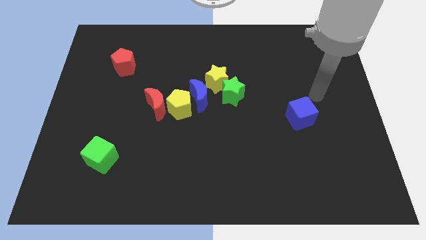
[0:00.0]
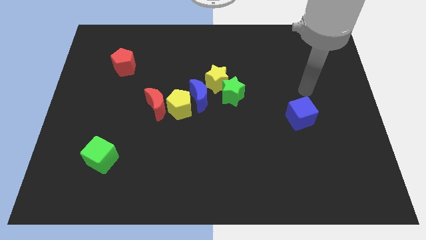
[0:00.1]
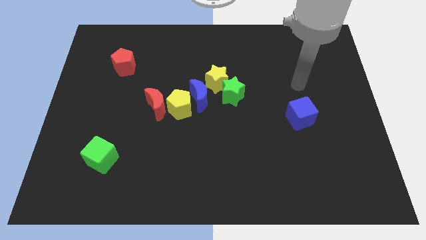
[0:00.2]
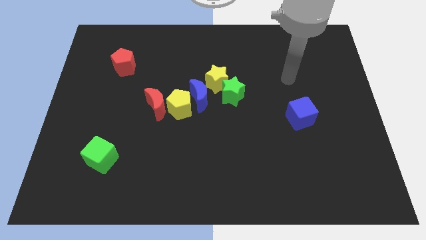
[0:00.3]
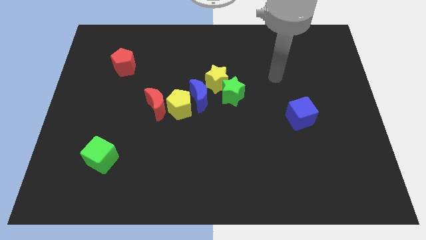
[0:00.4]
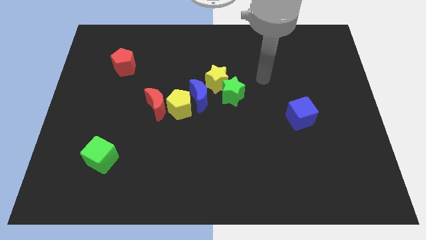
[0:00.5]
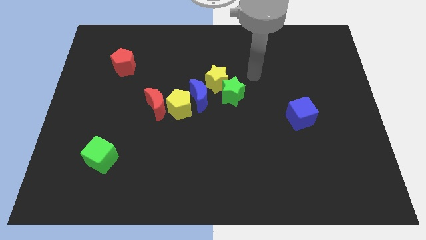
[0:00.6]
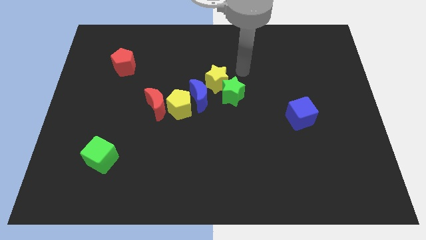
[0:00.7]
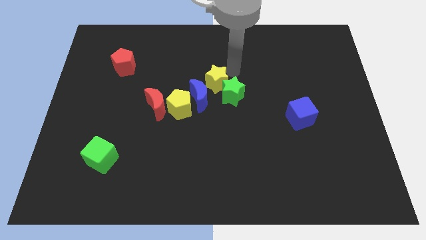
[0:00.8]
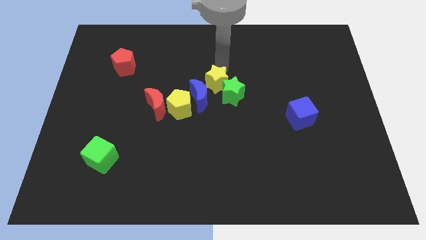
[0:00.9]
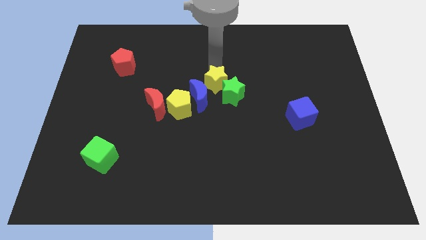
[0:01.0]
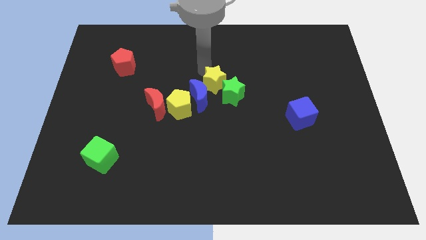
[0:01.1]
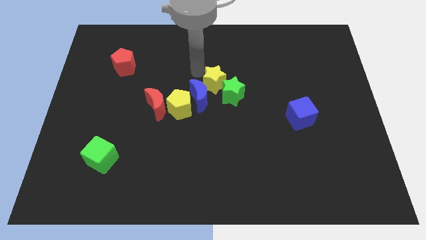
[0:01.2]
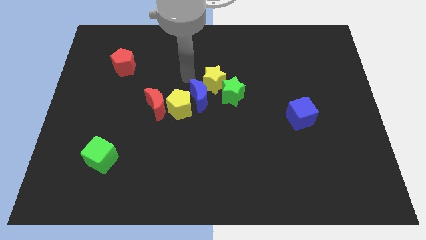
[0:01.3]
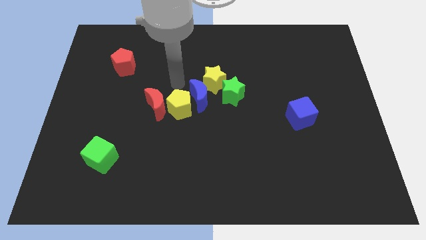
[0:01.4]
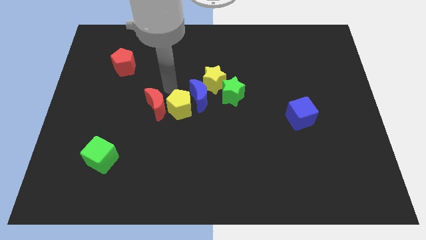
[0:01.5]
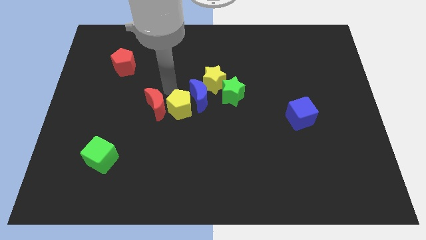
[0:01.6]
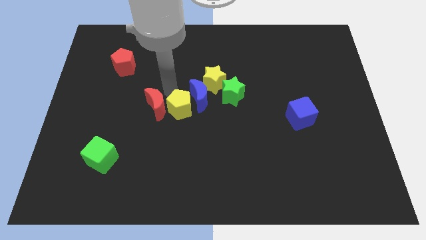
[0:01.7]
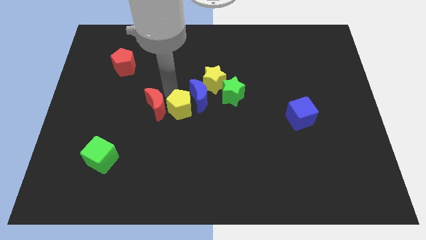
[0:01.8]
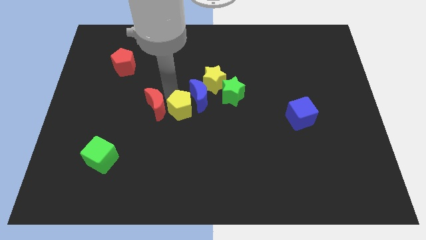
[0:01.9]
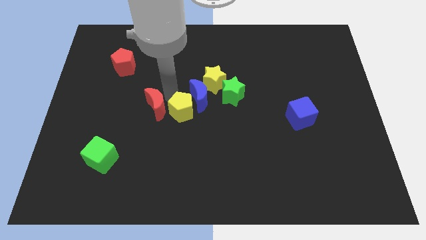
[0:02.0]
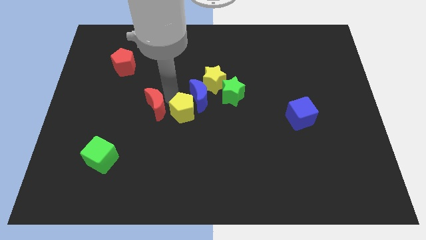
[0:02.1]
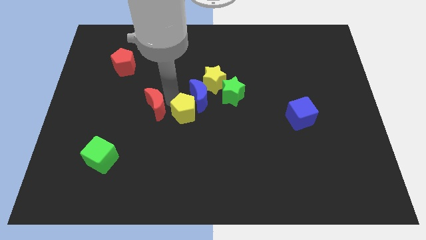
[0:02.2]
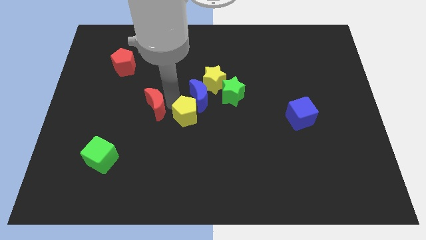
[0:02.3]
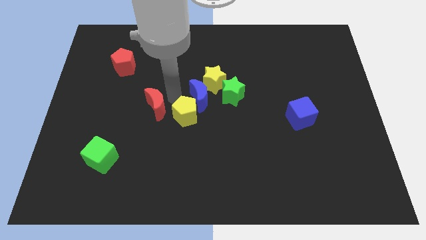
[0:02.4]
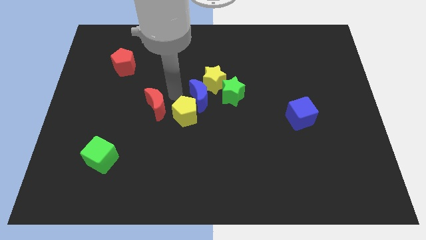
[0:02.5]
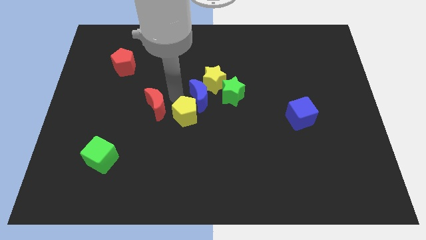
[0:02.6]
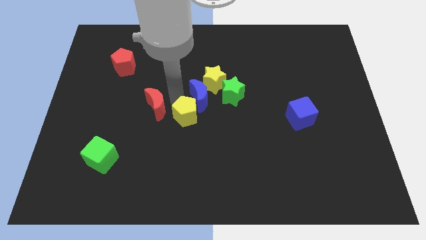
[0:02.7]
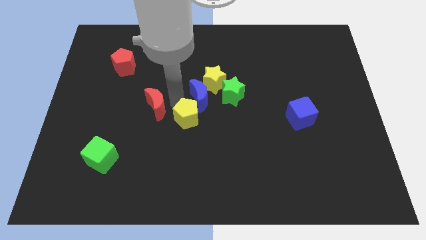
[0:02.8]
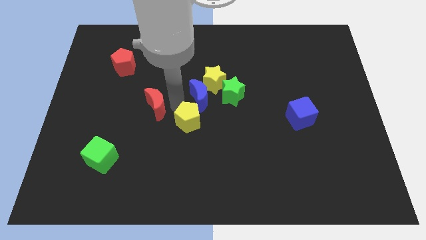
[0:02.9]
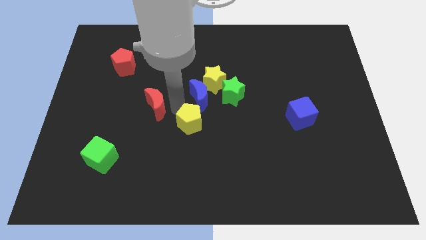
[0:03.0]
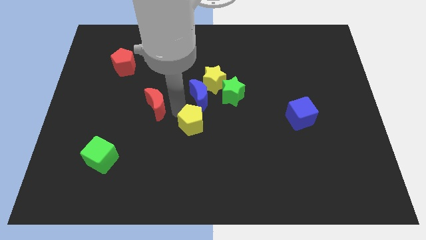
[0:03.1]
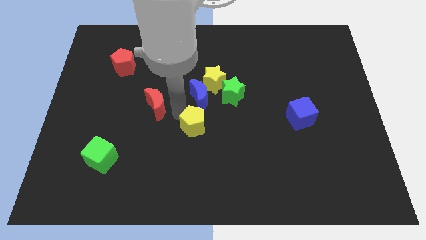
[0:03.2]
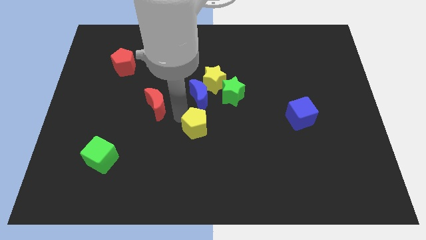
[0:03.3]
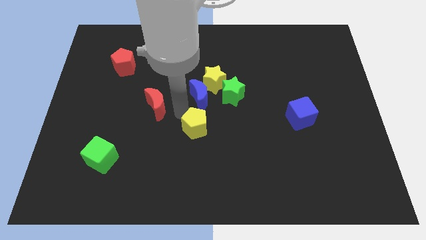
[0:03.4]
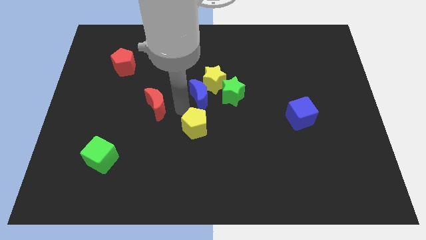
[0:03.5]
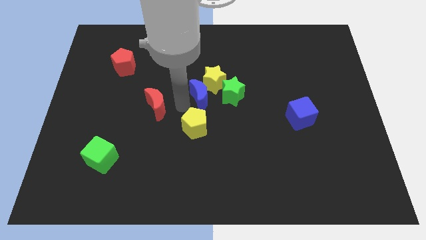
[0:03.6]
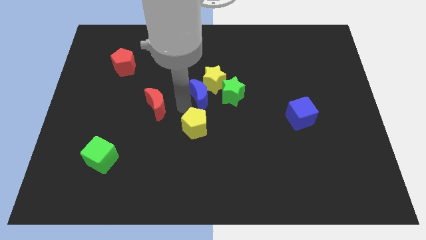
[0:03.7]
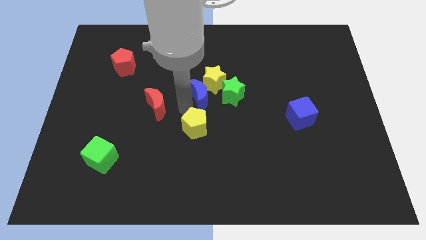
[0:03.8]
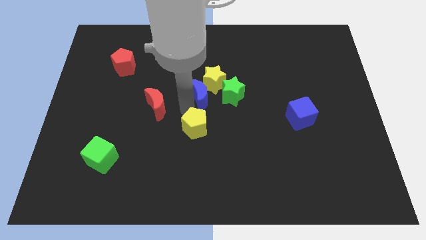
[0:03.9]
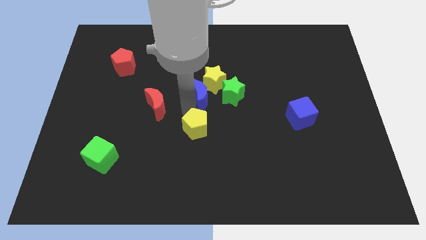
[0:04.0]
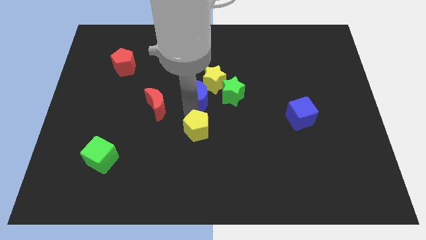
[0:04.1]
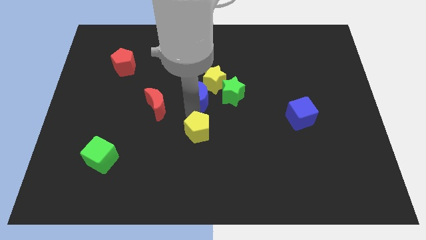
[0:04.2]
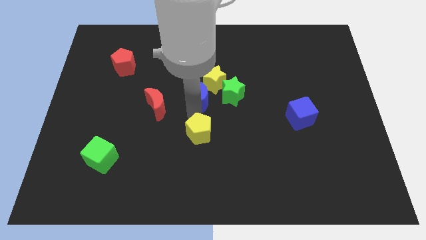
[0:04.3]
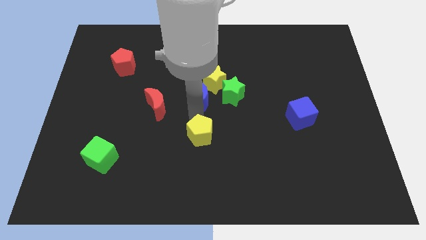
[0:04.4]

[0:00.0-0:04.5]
separate the yellow pentagon from the blue moon and red moon

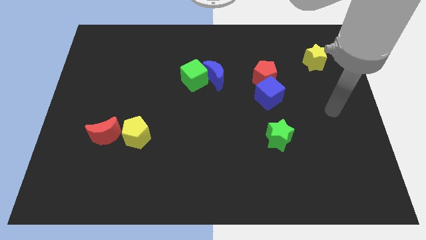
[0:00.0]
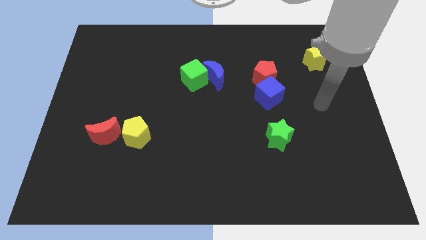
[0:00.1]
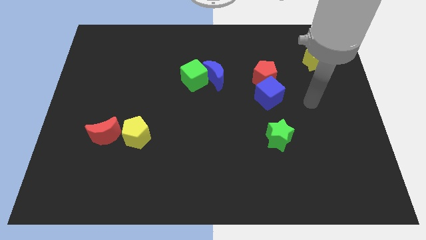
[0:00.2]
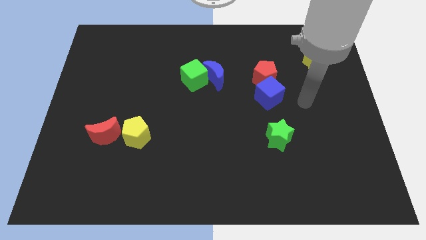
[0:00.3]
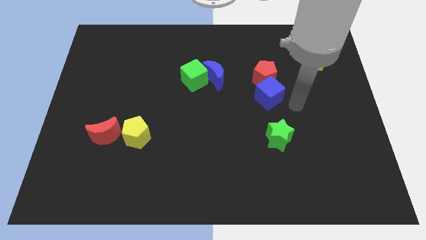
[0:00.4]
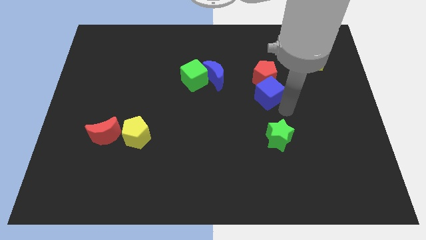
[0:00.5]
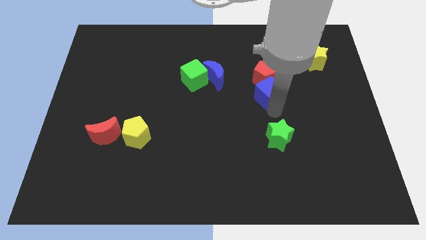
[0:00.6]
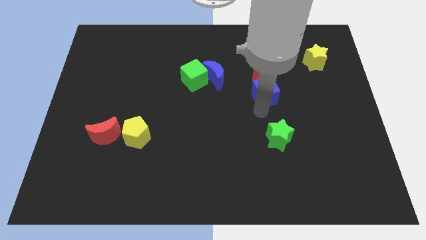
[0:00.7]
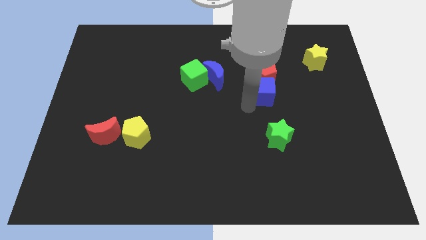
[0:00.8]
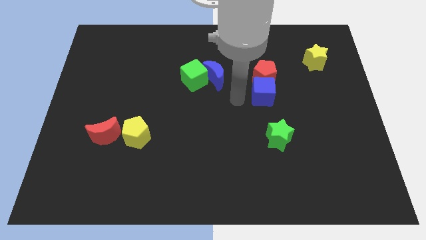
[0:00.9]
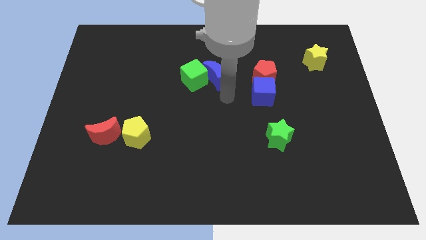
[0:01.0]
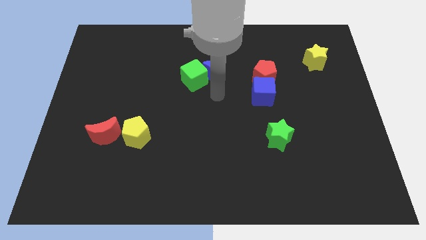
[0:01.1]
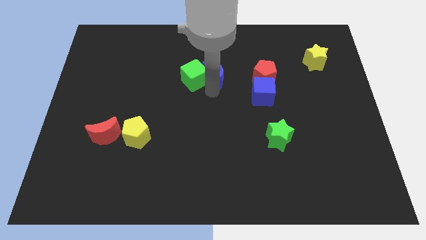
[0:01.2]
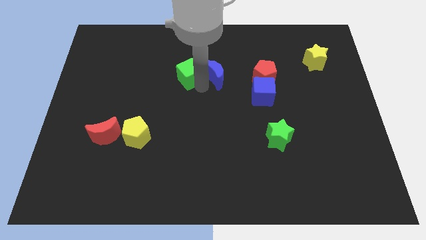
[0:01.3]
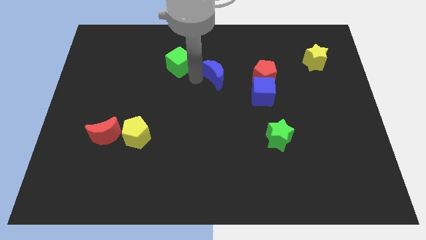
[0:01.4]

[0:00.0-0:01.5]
separate the blue moon from the green cube

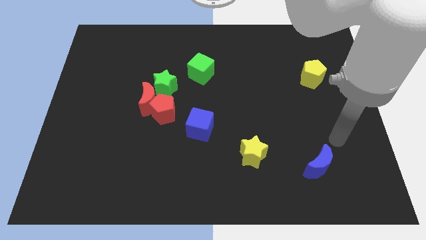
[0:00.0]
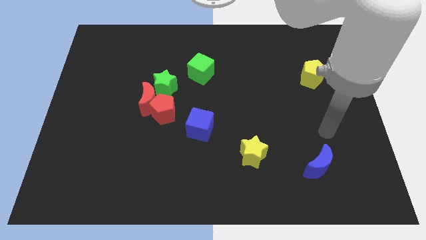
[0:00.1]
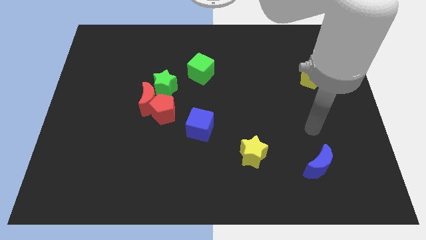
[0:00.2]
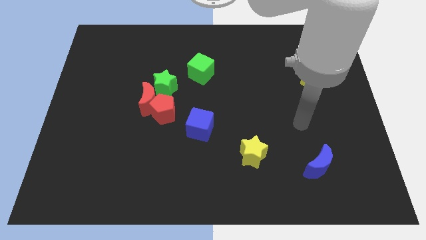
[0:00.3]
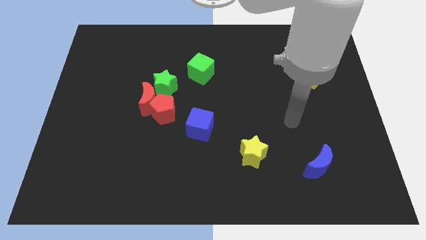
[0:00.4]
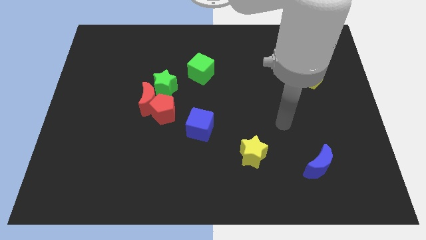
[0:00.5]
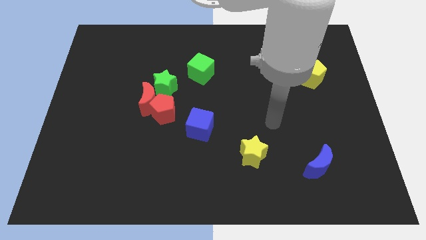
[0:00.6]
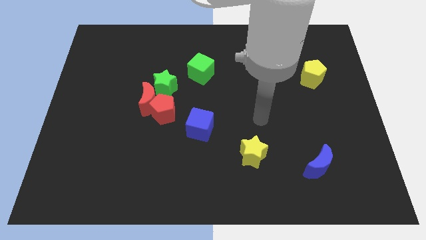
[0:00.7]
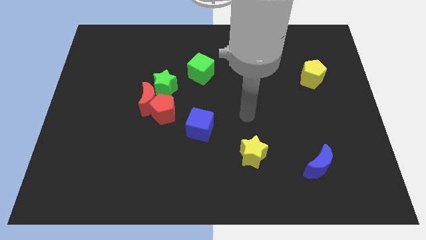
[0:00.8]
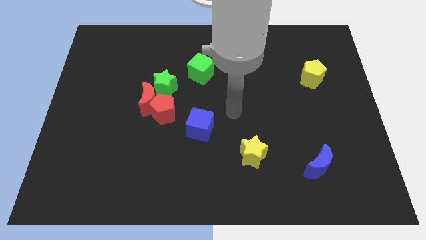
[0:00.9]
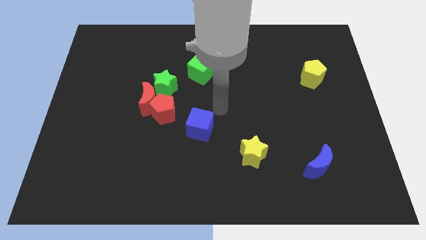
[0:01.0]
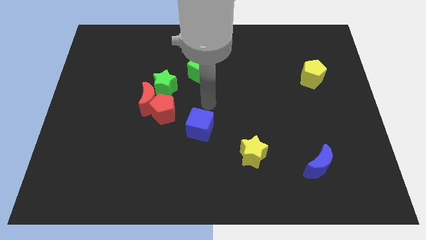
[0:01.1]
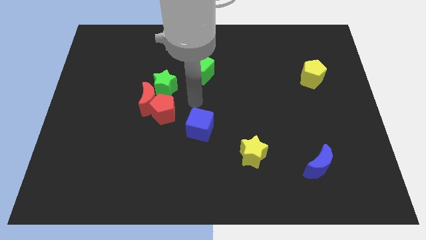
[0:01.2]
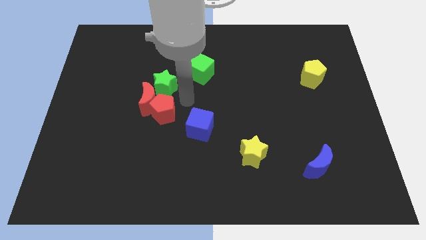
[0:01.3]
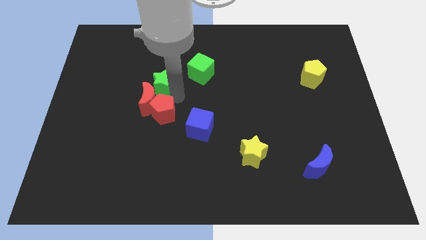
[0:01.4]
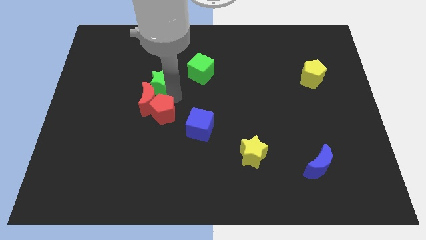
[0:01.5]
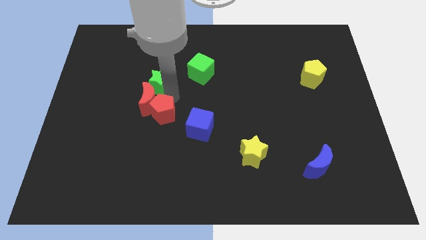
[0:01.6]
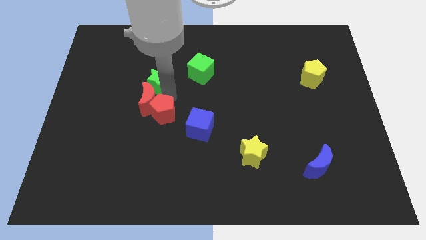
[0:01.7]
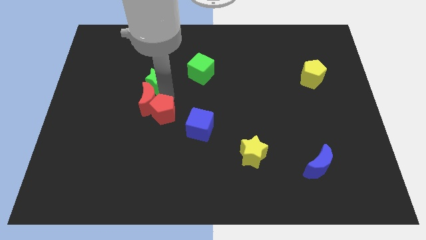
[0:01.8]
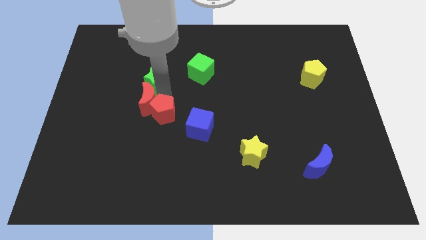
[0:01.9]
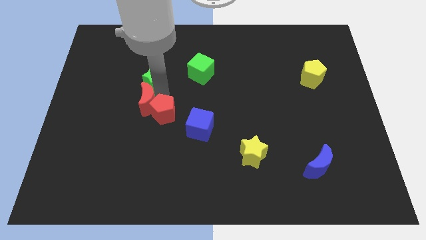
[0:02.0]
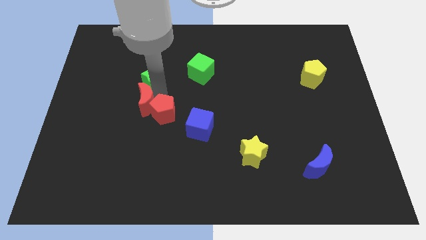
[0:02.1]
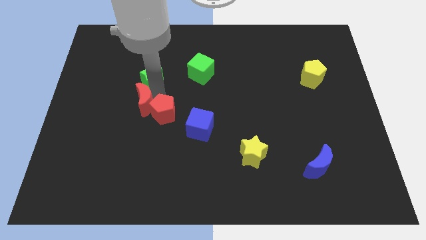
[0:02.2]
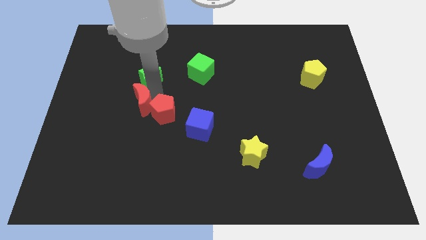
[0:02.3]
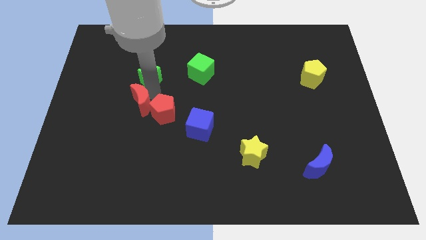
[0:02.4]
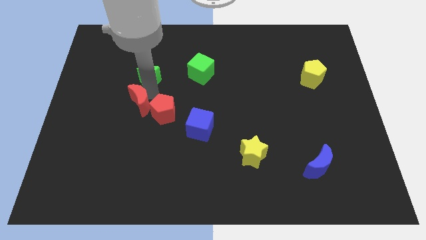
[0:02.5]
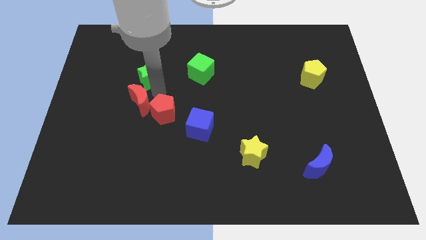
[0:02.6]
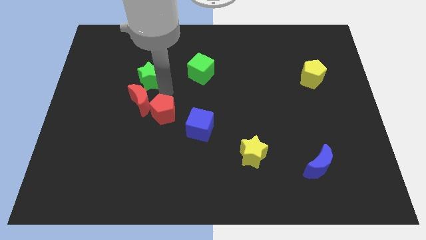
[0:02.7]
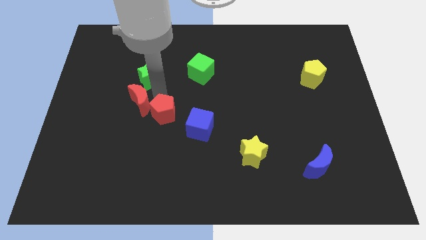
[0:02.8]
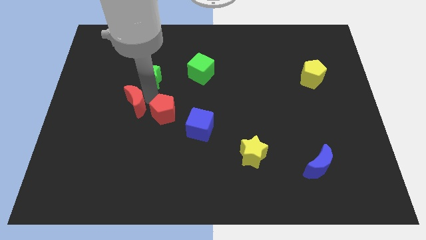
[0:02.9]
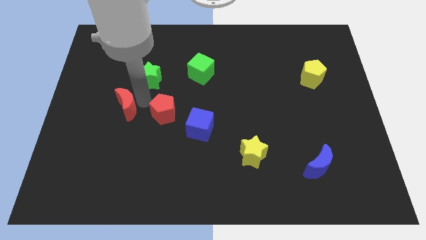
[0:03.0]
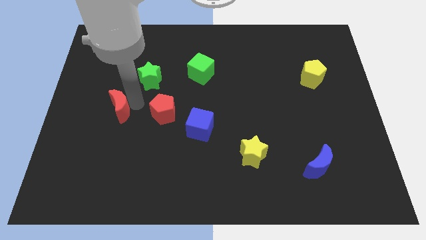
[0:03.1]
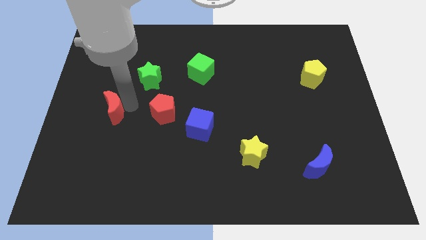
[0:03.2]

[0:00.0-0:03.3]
pull the red moon apart from the red pentagon and green star

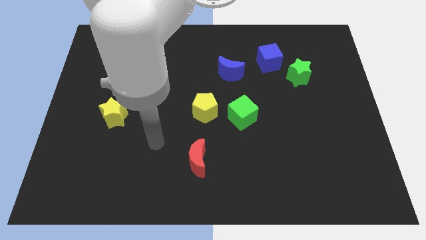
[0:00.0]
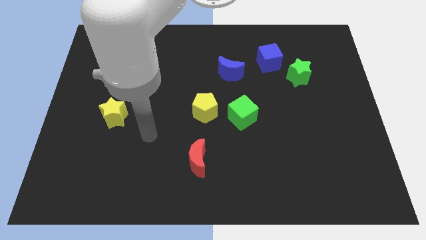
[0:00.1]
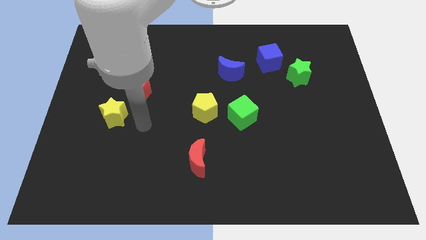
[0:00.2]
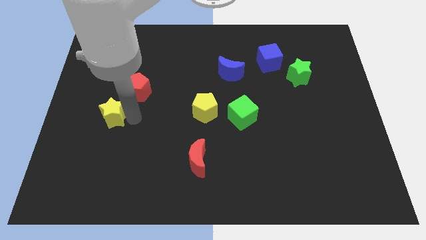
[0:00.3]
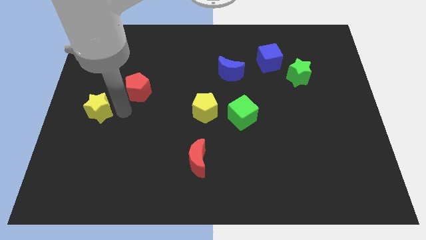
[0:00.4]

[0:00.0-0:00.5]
move the red pentagon away from the yellow star
